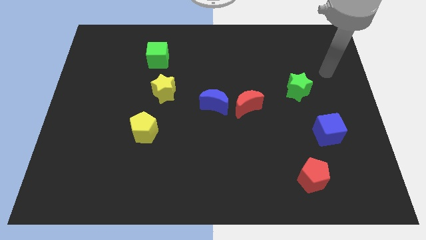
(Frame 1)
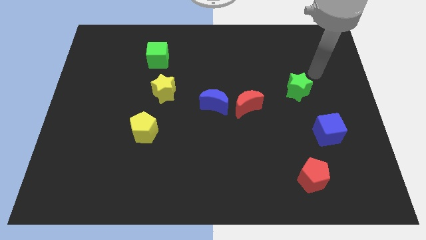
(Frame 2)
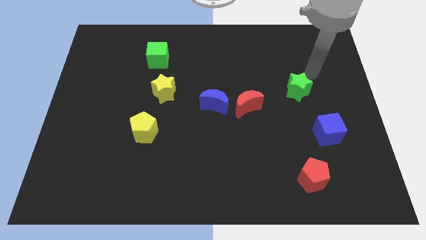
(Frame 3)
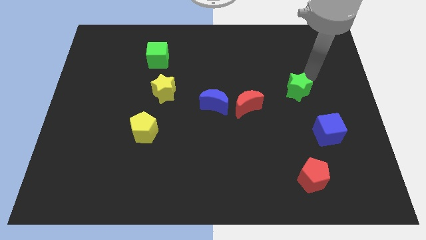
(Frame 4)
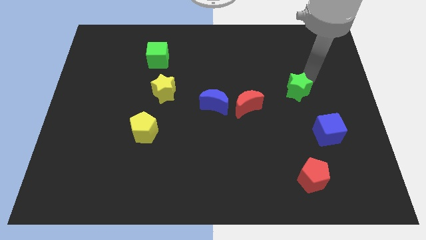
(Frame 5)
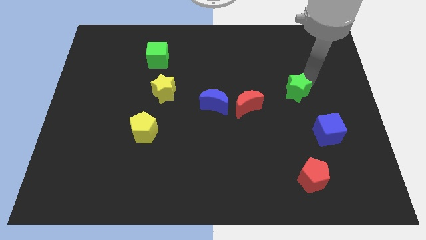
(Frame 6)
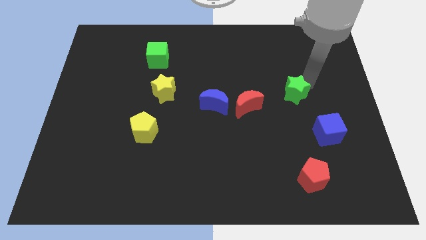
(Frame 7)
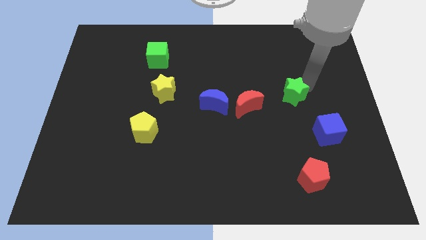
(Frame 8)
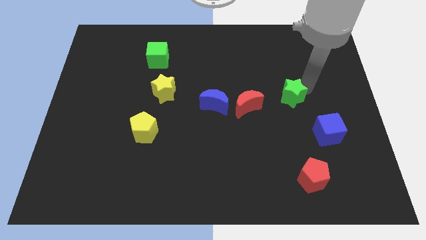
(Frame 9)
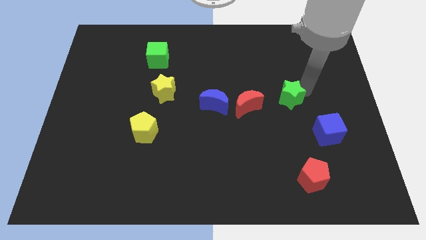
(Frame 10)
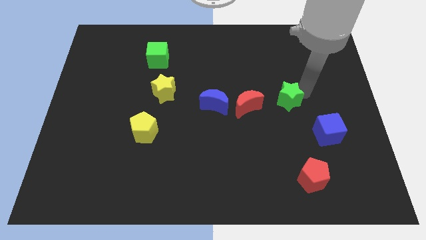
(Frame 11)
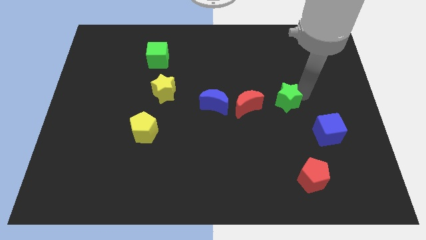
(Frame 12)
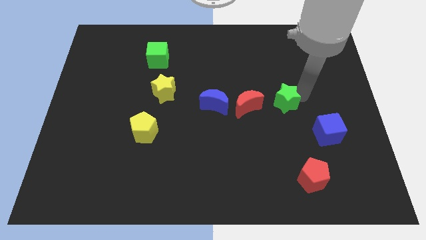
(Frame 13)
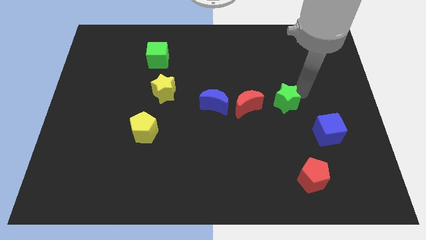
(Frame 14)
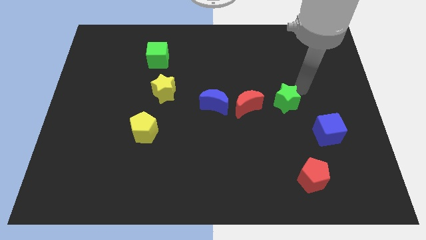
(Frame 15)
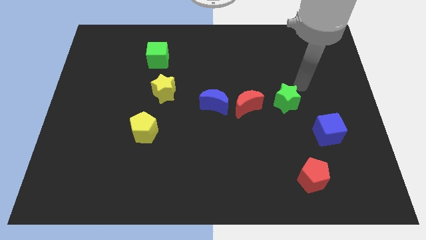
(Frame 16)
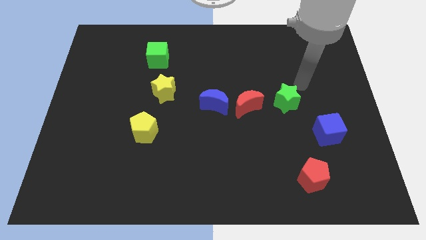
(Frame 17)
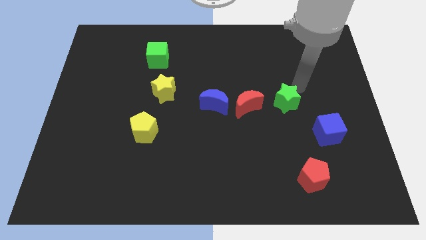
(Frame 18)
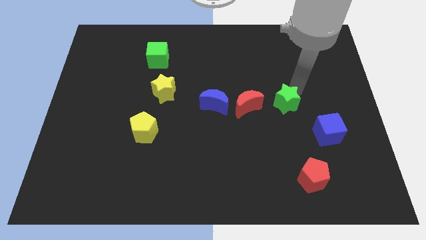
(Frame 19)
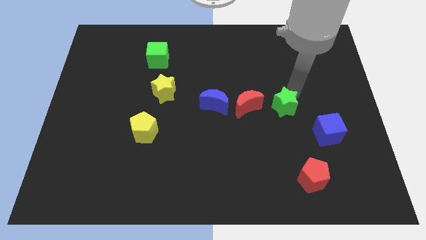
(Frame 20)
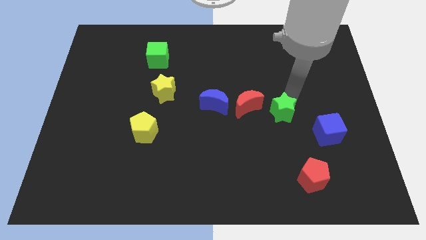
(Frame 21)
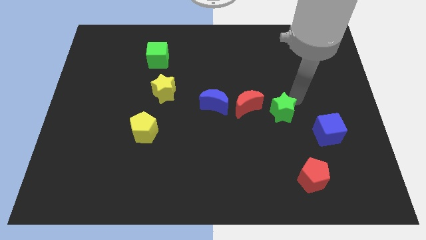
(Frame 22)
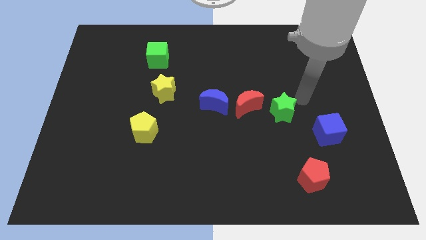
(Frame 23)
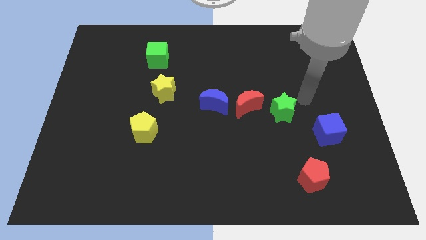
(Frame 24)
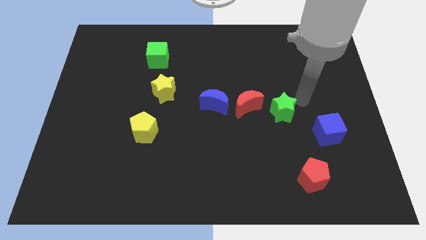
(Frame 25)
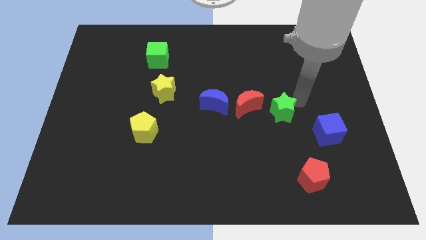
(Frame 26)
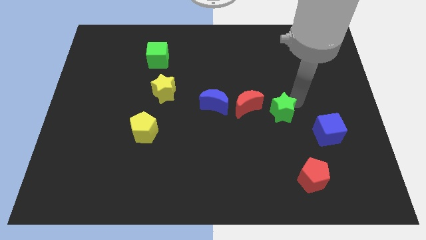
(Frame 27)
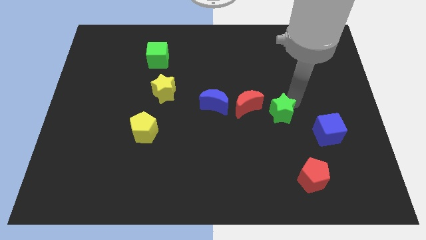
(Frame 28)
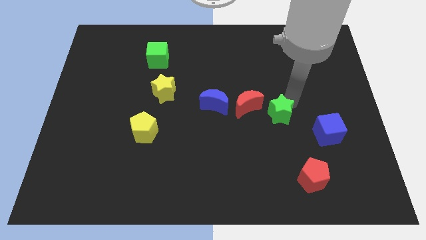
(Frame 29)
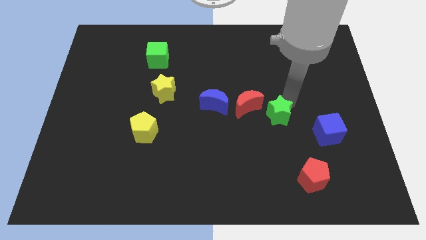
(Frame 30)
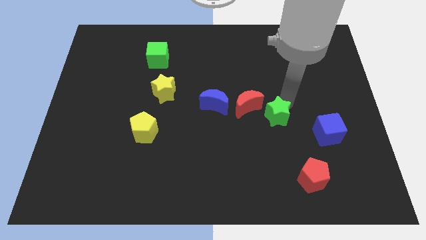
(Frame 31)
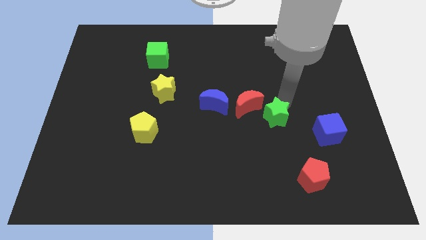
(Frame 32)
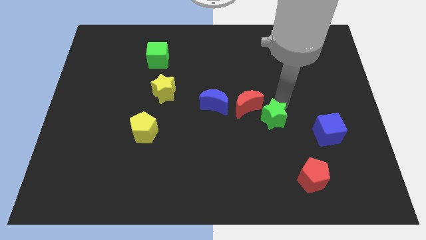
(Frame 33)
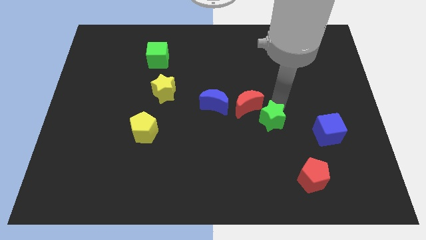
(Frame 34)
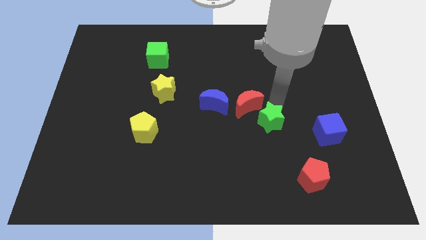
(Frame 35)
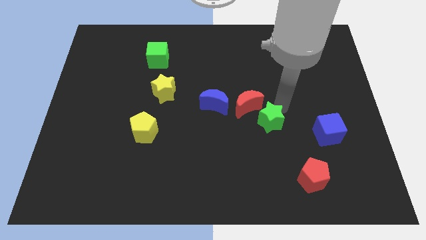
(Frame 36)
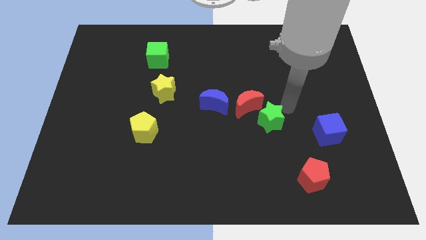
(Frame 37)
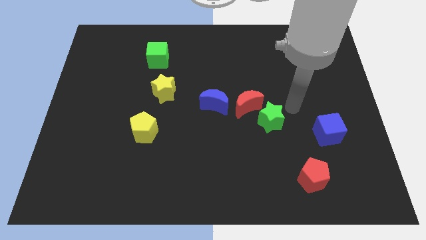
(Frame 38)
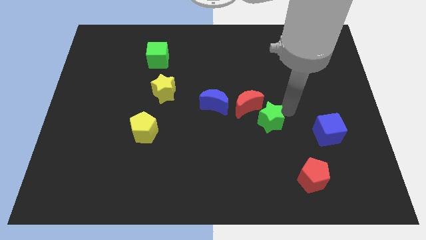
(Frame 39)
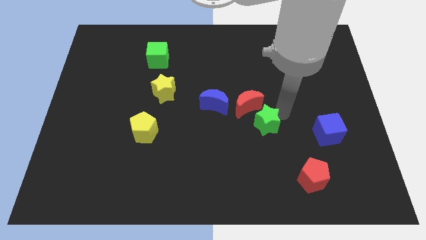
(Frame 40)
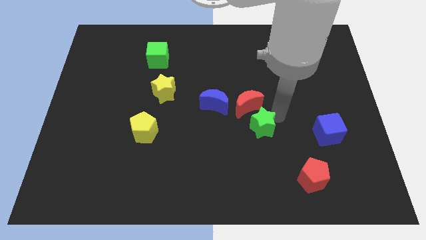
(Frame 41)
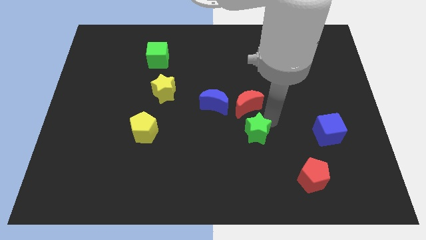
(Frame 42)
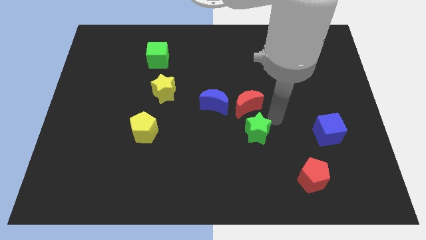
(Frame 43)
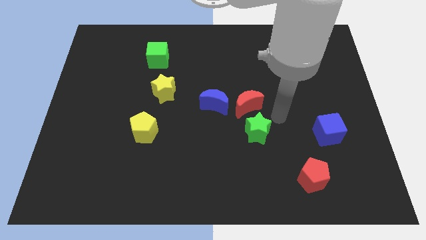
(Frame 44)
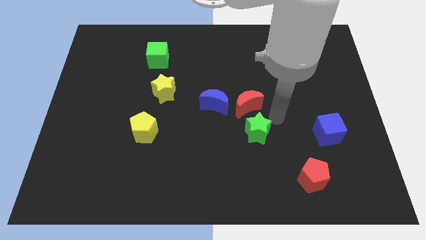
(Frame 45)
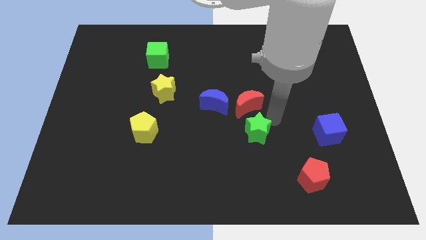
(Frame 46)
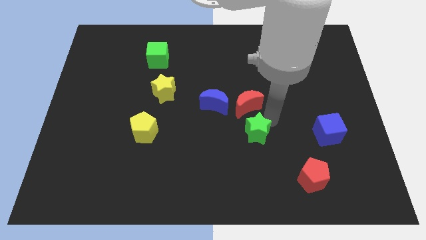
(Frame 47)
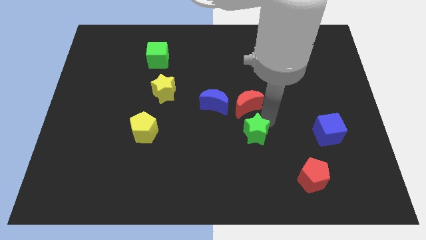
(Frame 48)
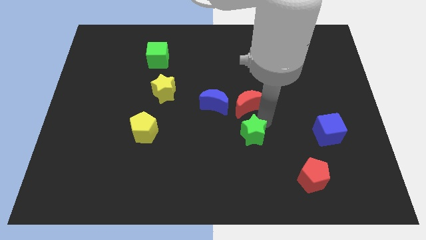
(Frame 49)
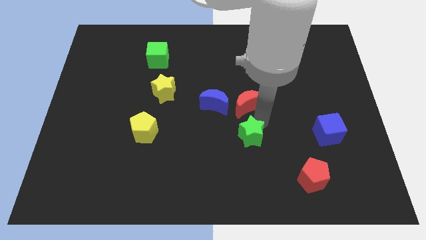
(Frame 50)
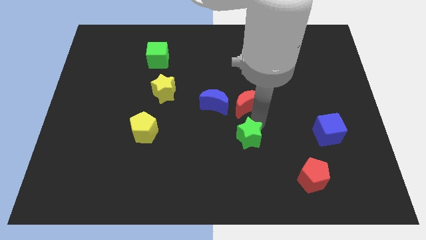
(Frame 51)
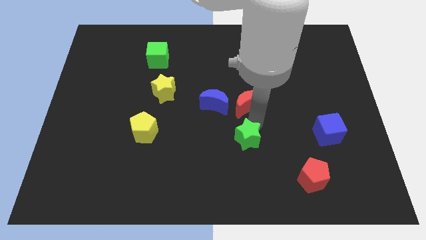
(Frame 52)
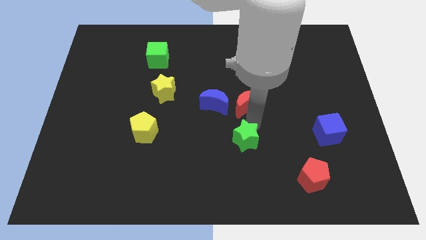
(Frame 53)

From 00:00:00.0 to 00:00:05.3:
push the green star down and then to the left

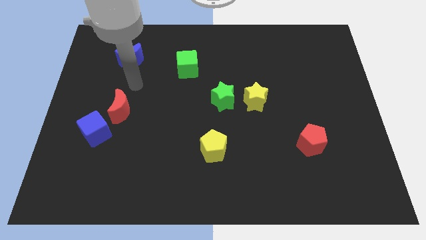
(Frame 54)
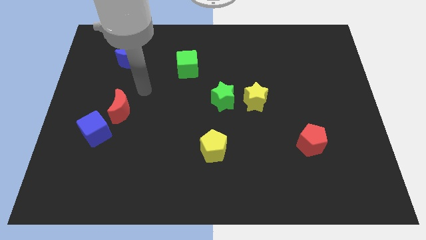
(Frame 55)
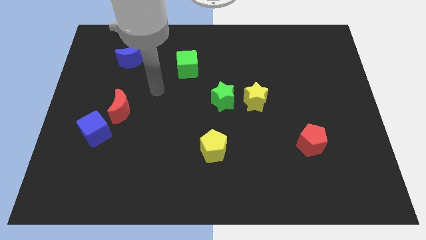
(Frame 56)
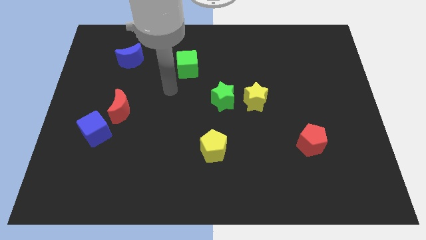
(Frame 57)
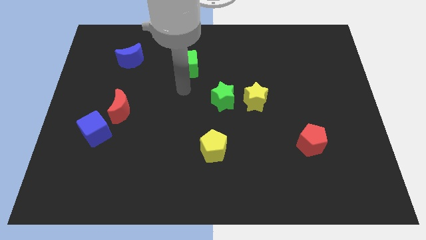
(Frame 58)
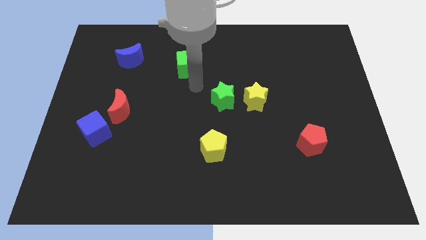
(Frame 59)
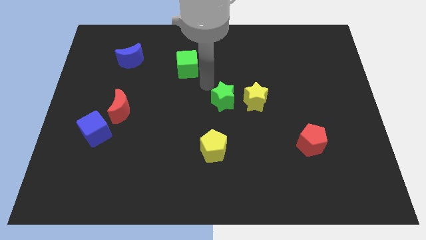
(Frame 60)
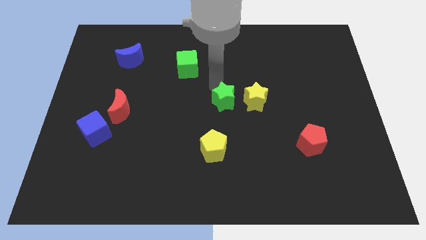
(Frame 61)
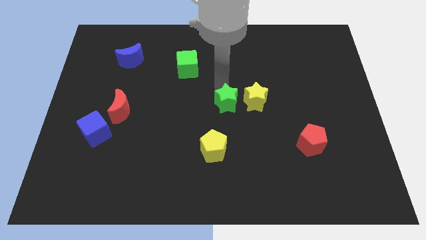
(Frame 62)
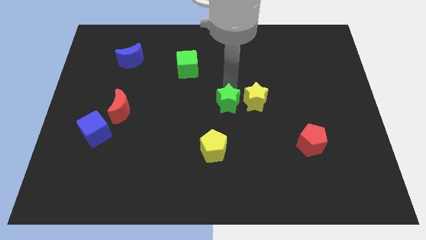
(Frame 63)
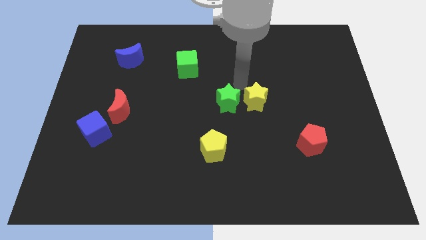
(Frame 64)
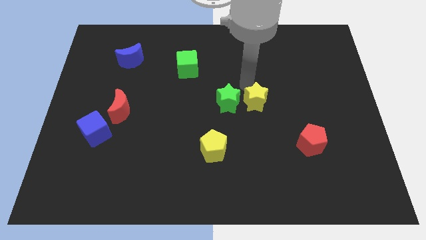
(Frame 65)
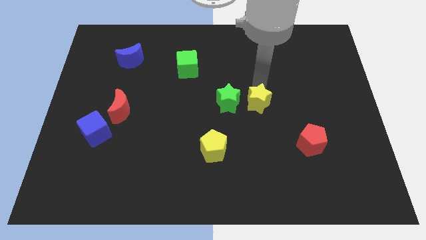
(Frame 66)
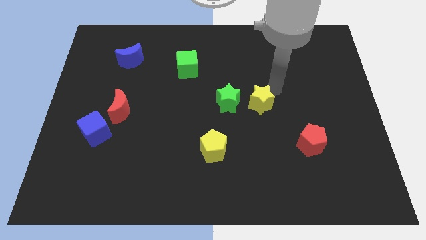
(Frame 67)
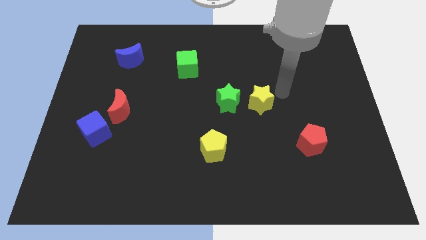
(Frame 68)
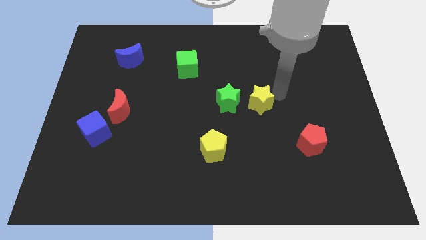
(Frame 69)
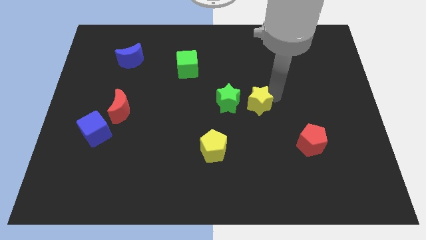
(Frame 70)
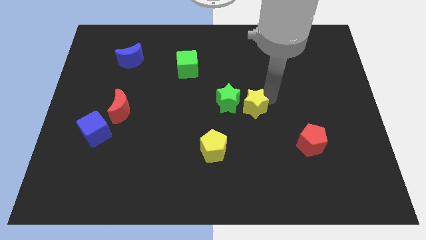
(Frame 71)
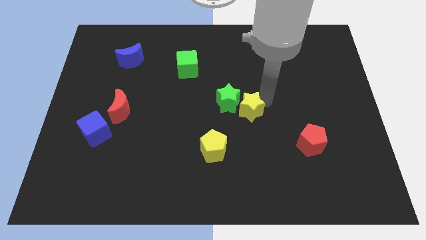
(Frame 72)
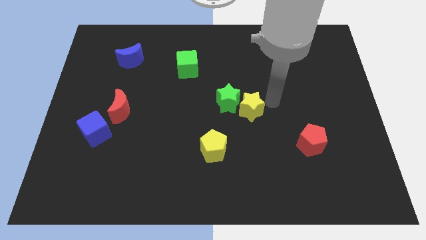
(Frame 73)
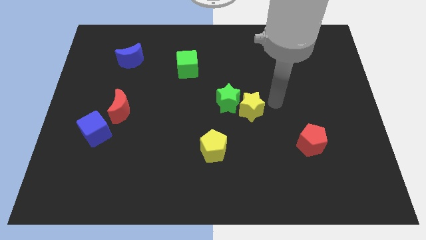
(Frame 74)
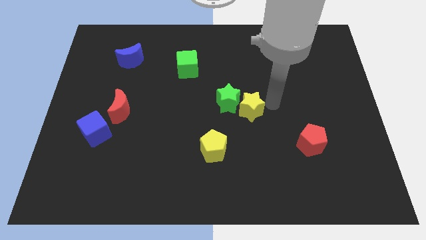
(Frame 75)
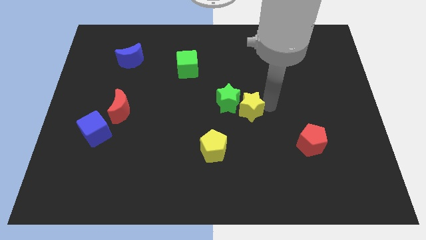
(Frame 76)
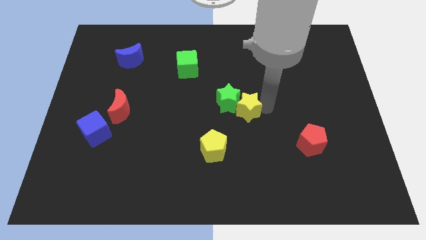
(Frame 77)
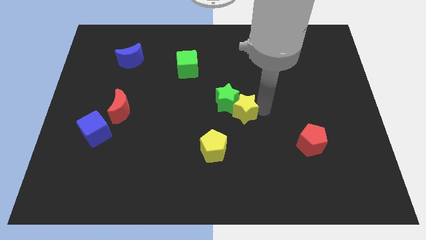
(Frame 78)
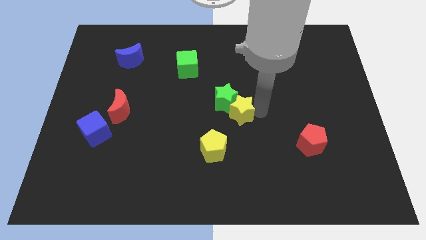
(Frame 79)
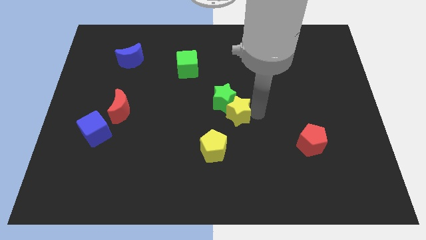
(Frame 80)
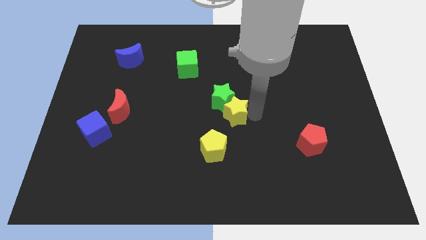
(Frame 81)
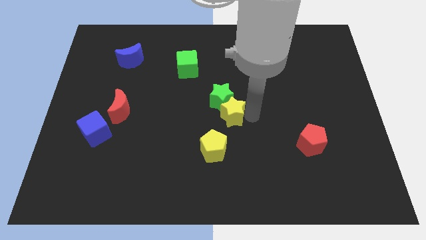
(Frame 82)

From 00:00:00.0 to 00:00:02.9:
slightly push the yellow star downwards and to the left
